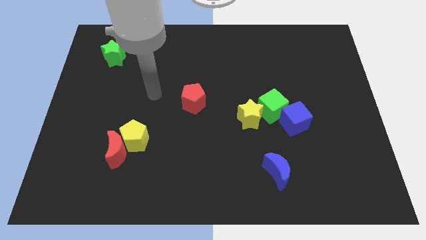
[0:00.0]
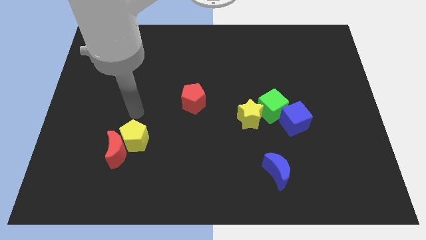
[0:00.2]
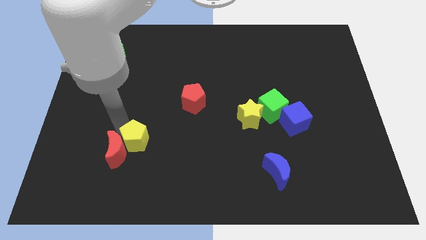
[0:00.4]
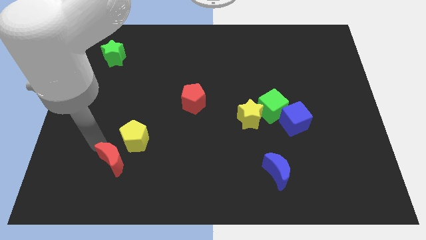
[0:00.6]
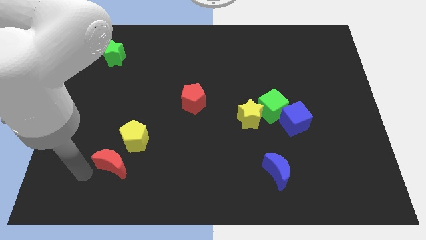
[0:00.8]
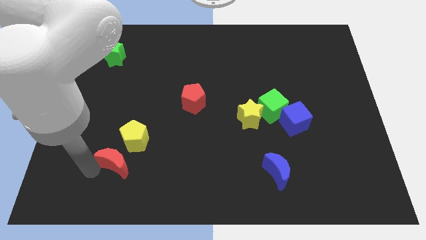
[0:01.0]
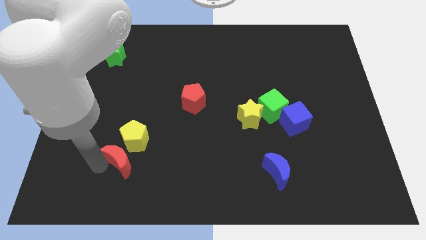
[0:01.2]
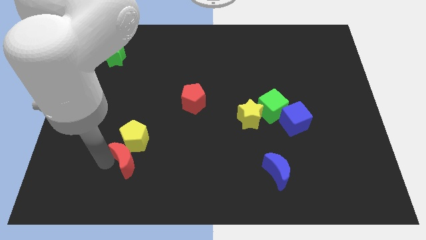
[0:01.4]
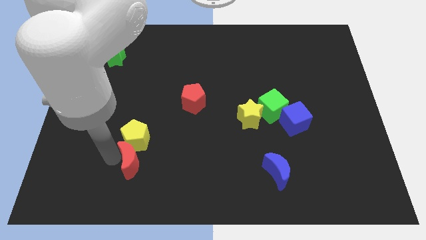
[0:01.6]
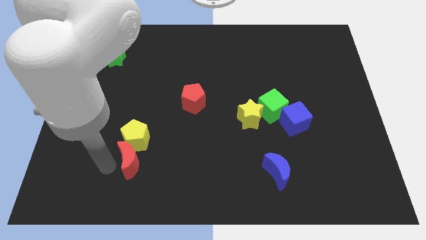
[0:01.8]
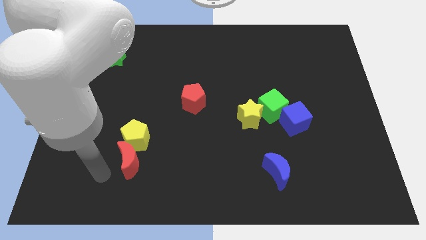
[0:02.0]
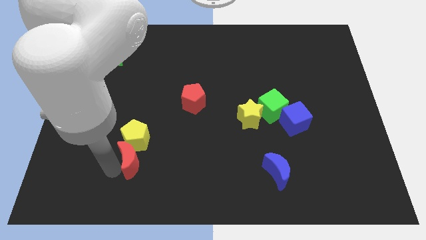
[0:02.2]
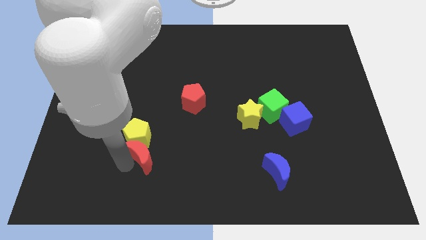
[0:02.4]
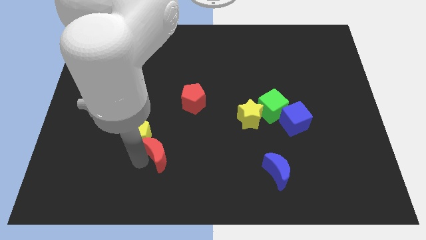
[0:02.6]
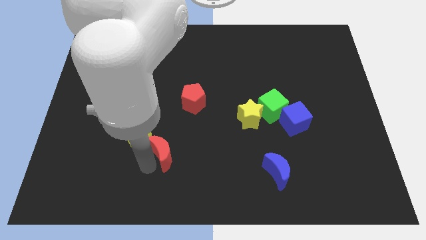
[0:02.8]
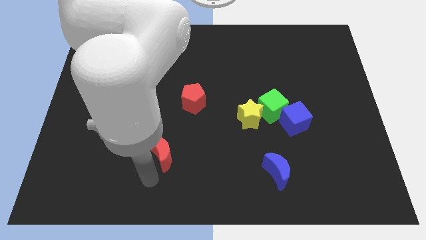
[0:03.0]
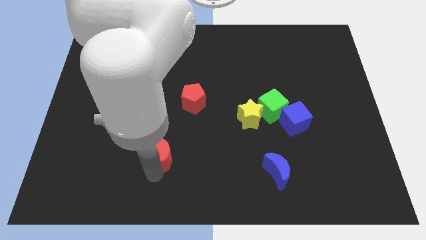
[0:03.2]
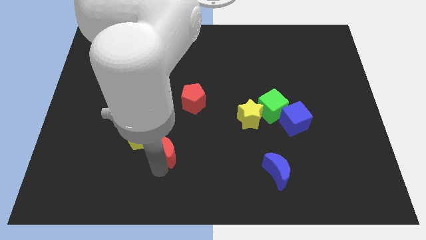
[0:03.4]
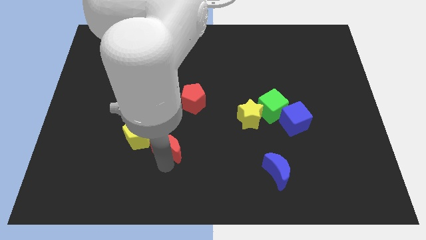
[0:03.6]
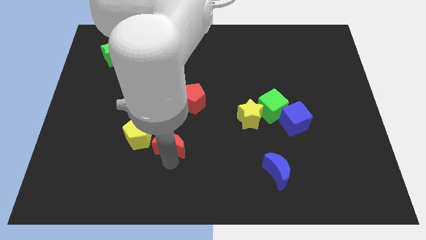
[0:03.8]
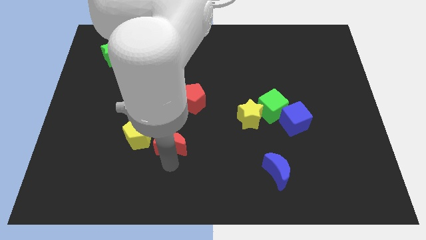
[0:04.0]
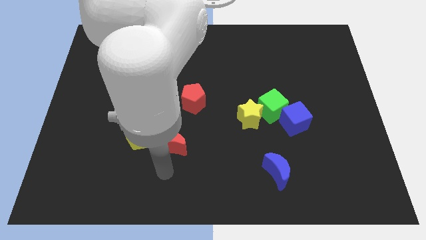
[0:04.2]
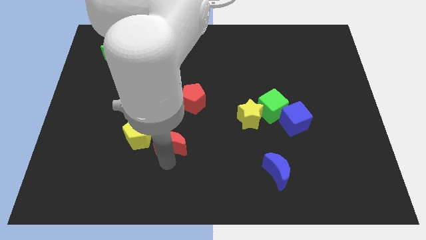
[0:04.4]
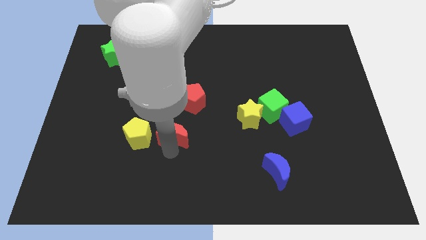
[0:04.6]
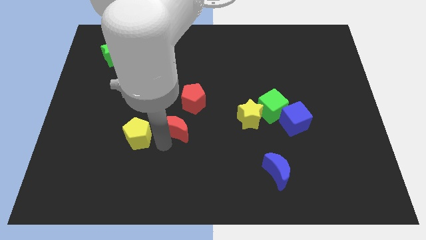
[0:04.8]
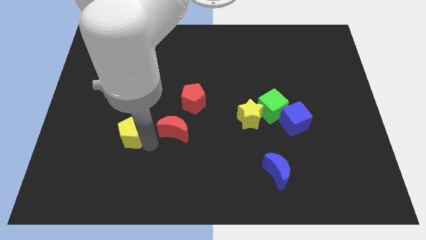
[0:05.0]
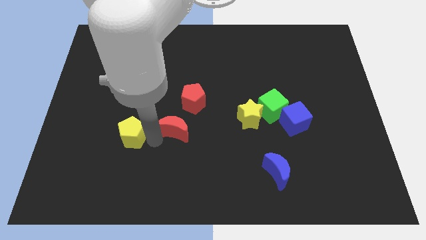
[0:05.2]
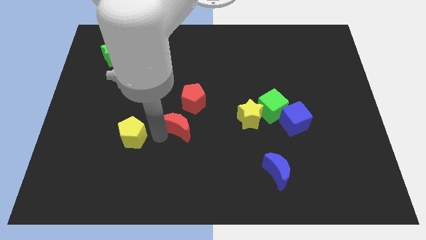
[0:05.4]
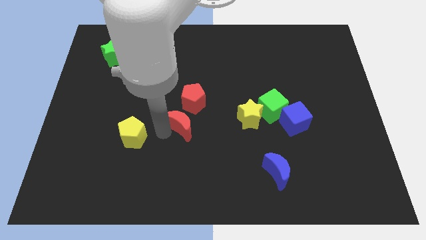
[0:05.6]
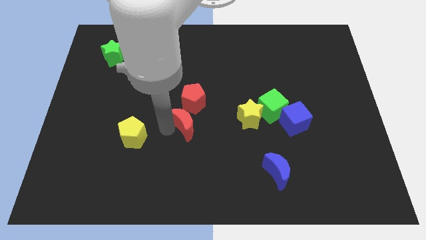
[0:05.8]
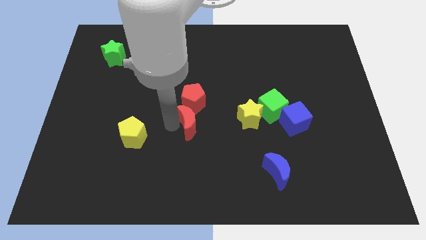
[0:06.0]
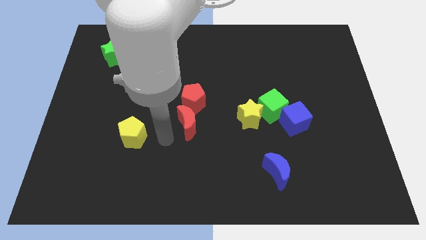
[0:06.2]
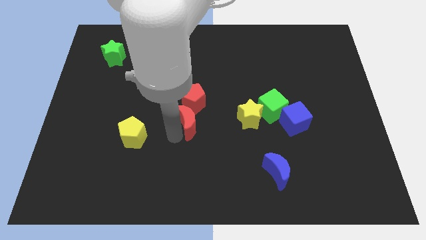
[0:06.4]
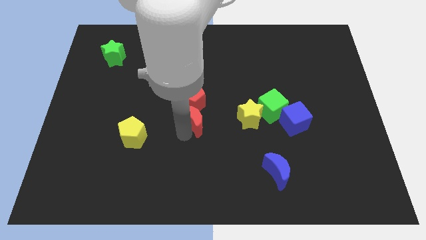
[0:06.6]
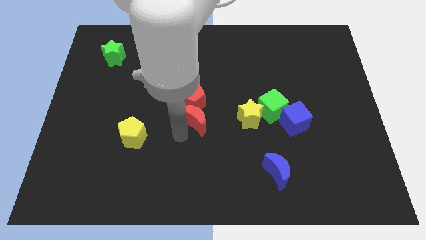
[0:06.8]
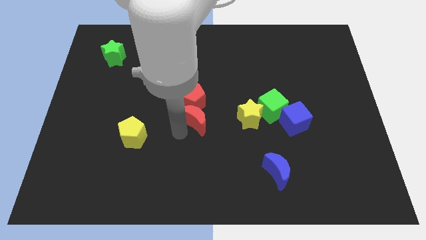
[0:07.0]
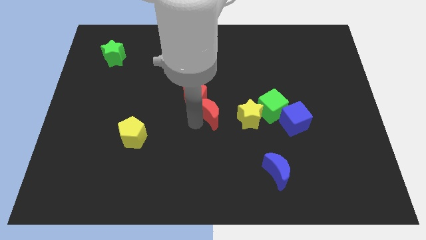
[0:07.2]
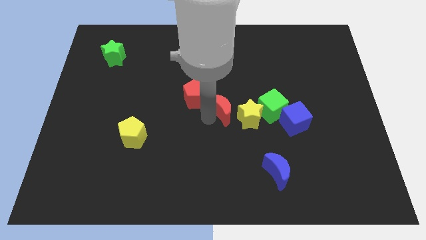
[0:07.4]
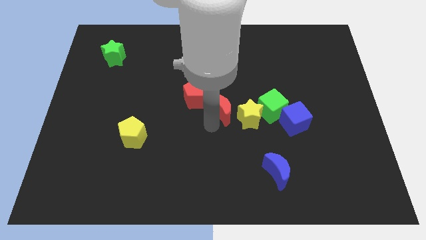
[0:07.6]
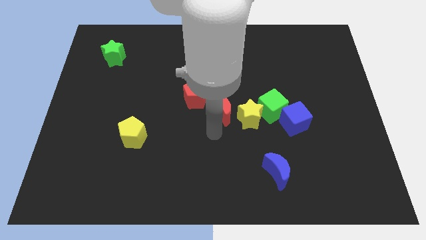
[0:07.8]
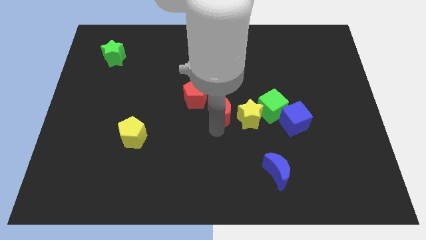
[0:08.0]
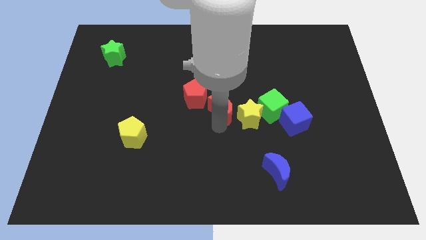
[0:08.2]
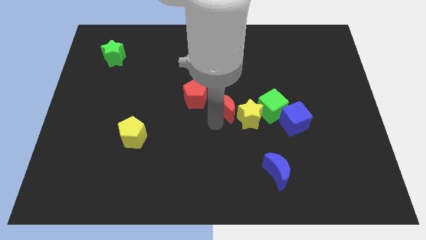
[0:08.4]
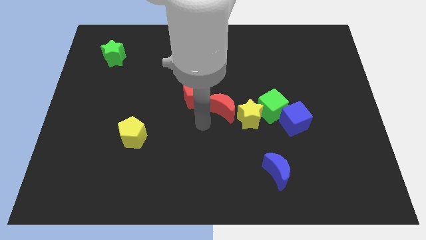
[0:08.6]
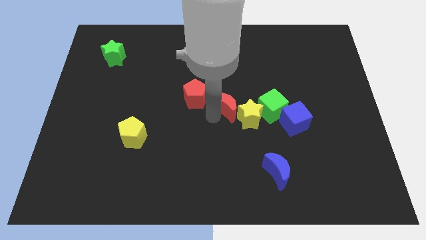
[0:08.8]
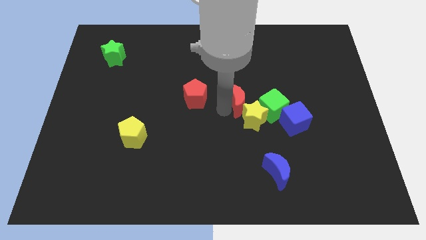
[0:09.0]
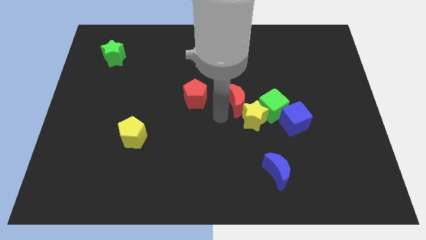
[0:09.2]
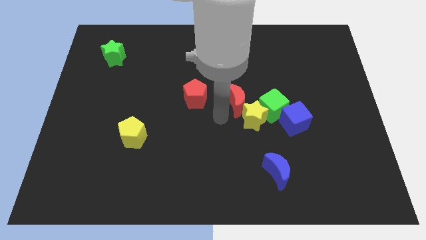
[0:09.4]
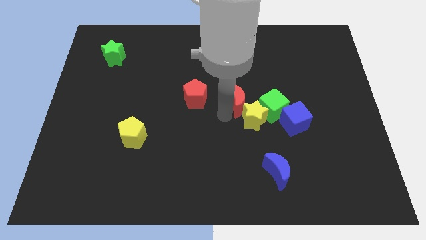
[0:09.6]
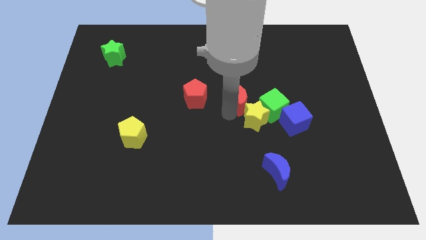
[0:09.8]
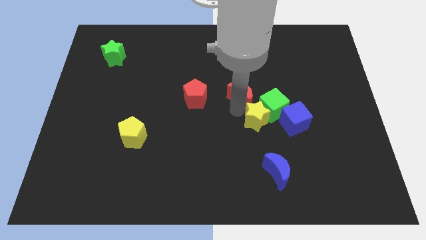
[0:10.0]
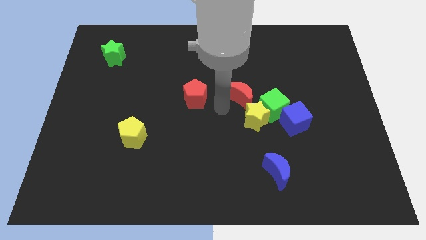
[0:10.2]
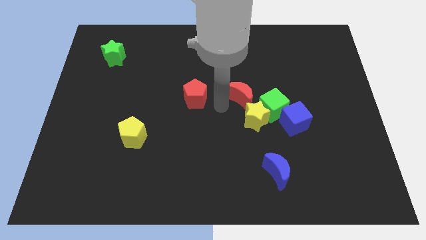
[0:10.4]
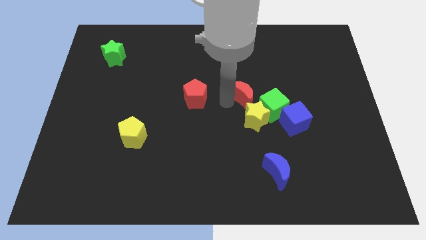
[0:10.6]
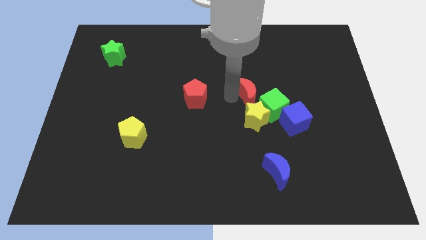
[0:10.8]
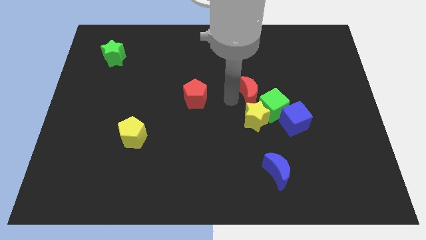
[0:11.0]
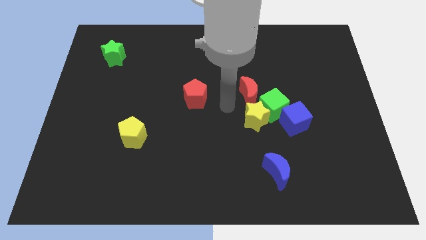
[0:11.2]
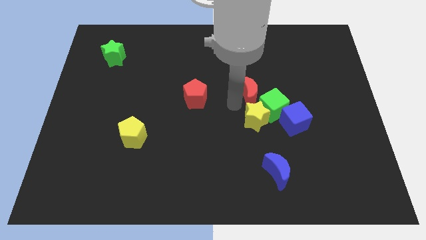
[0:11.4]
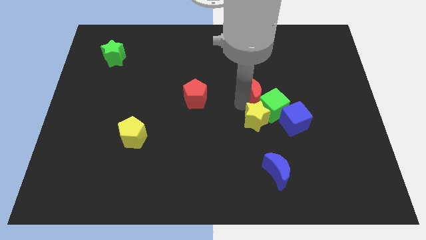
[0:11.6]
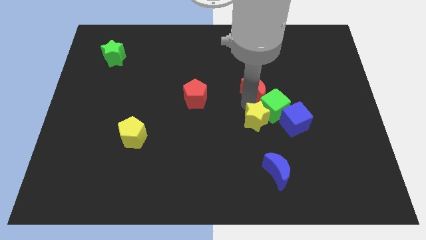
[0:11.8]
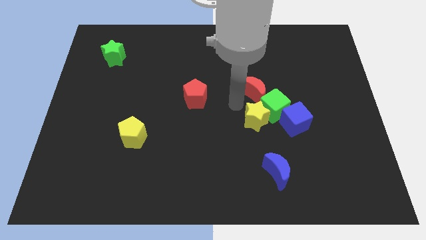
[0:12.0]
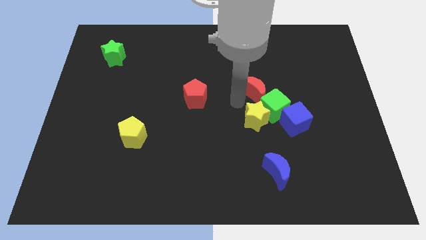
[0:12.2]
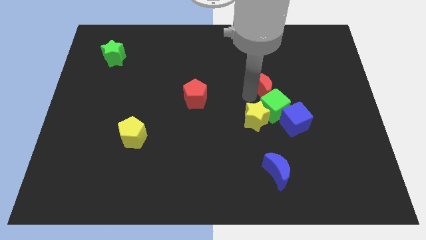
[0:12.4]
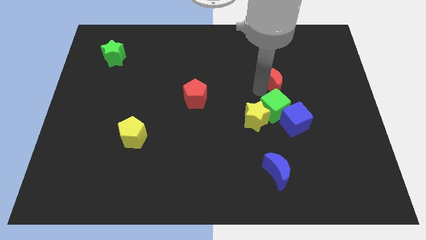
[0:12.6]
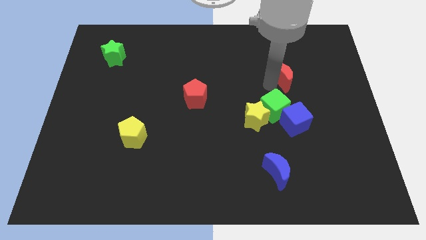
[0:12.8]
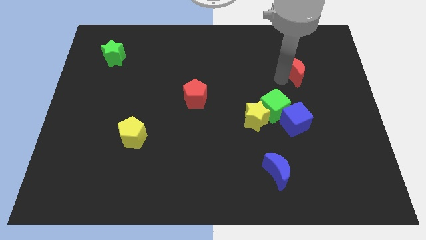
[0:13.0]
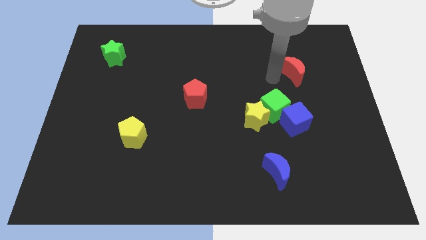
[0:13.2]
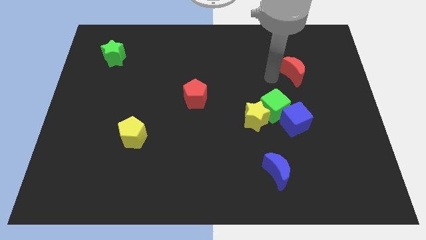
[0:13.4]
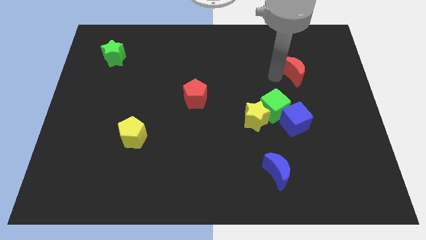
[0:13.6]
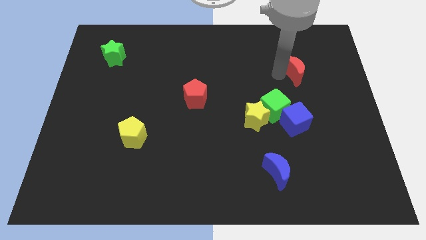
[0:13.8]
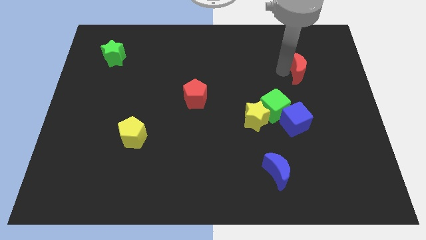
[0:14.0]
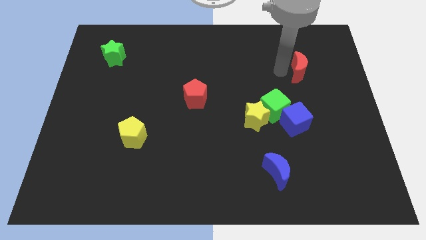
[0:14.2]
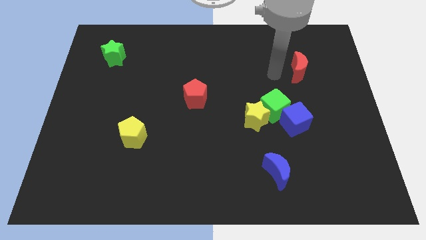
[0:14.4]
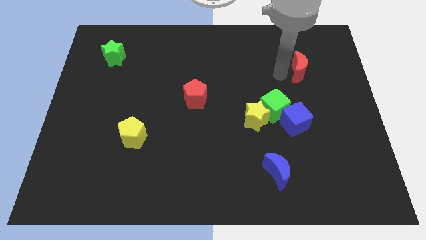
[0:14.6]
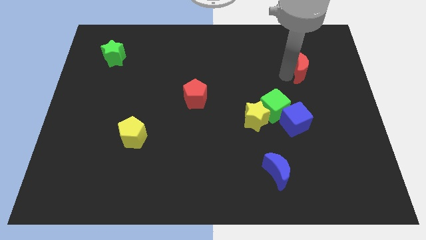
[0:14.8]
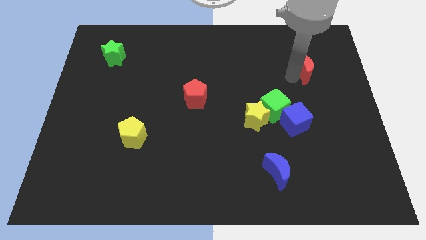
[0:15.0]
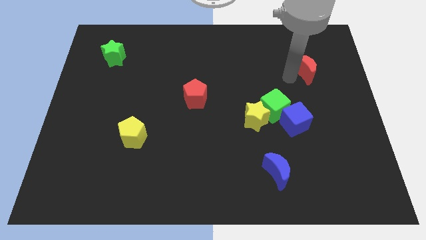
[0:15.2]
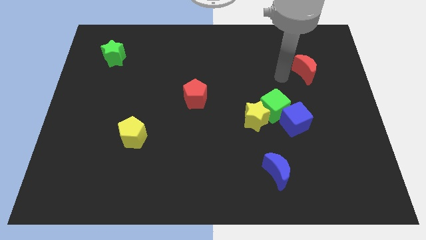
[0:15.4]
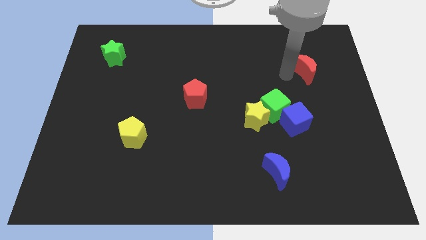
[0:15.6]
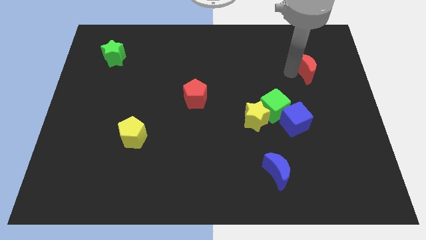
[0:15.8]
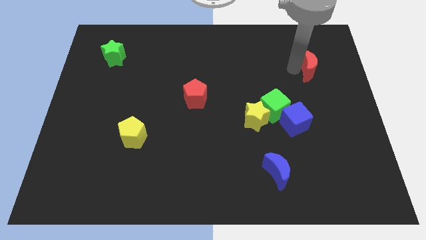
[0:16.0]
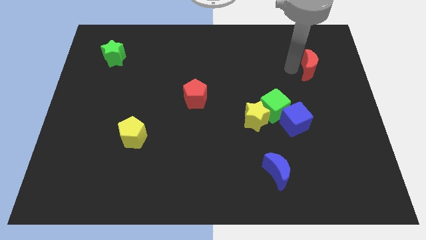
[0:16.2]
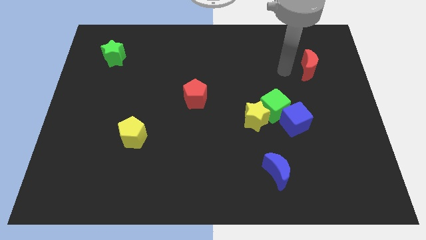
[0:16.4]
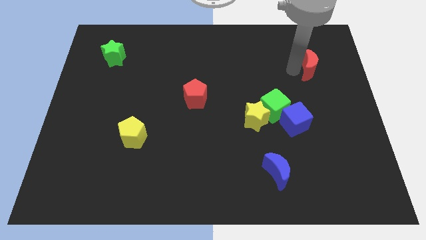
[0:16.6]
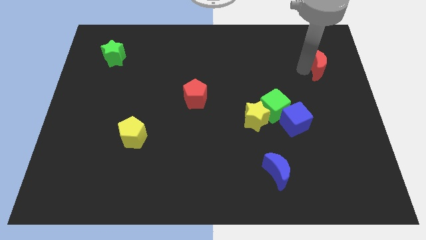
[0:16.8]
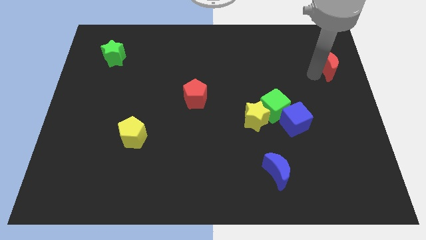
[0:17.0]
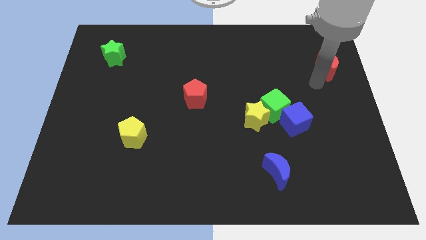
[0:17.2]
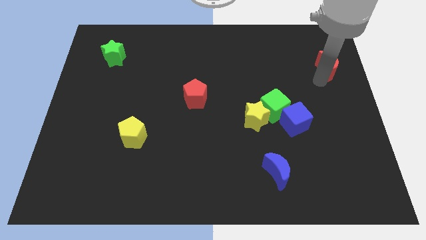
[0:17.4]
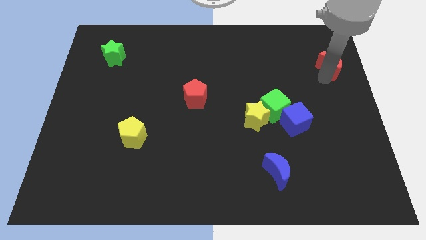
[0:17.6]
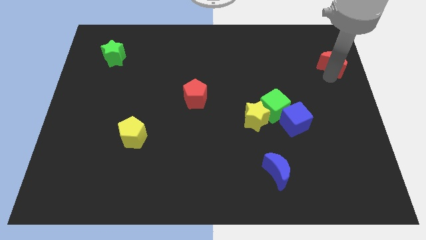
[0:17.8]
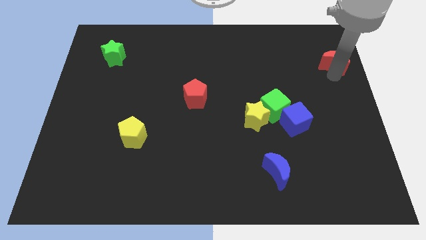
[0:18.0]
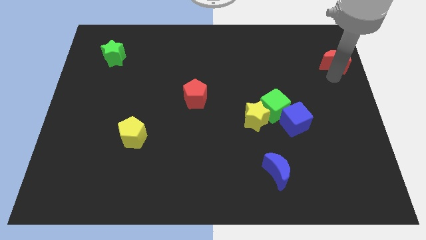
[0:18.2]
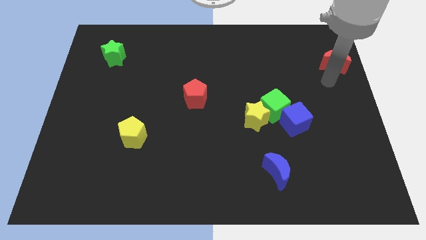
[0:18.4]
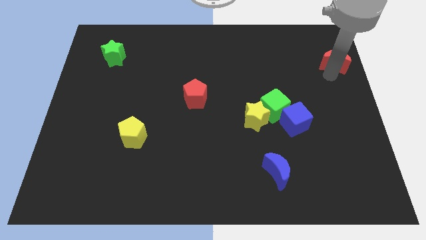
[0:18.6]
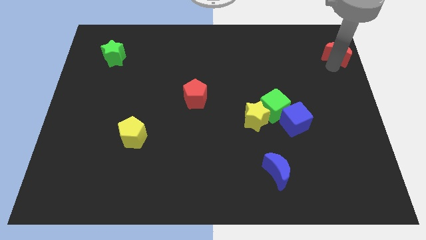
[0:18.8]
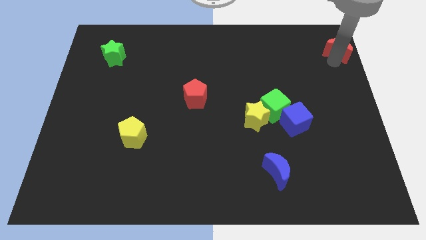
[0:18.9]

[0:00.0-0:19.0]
move the red moon to the top right
